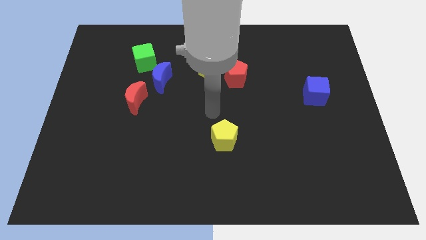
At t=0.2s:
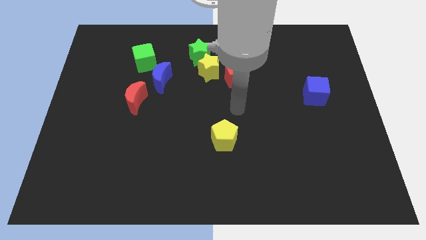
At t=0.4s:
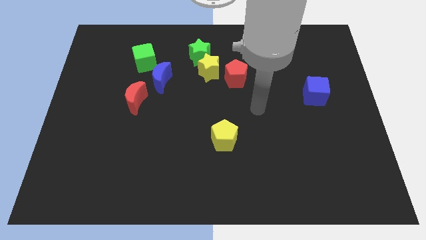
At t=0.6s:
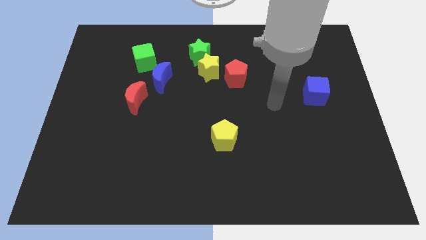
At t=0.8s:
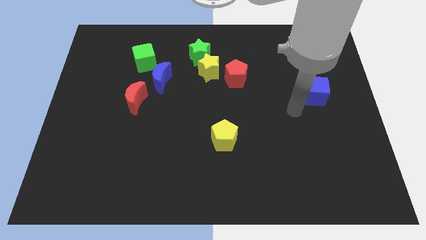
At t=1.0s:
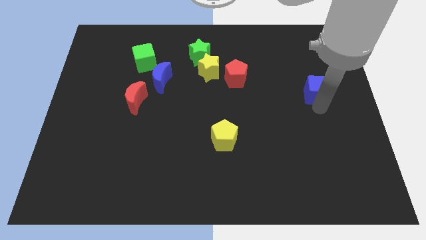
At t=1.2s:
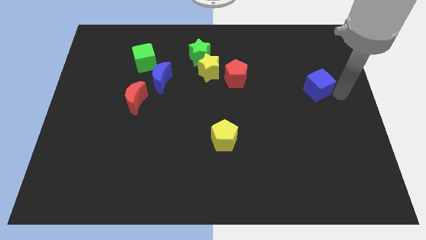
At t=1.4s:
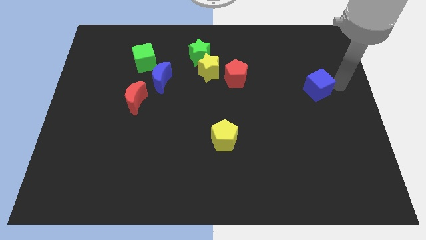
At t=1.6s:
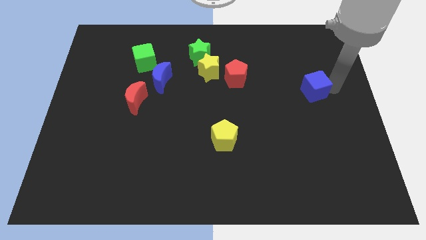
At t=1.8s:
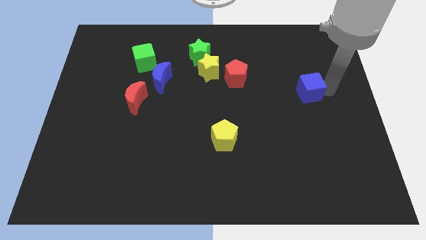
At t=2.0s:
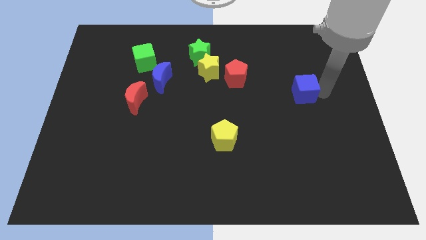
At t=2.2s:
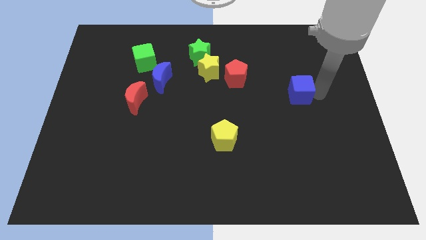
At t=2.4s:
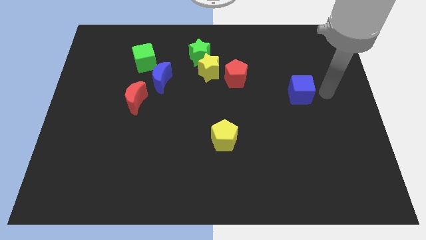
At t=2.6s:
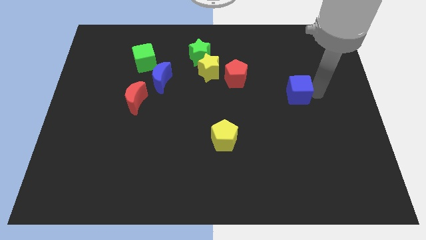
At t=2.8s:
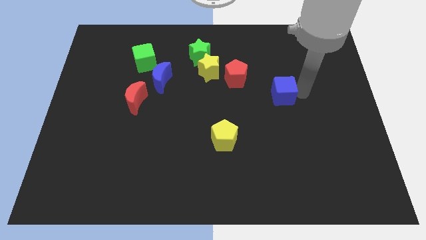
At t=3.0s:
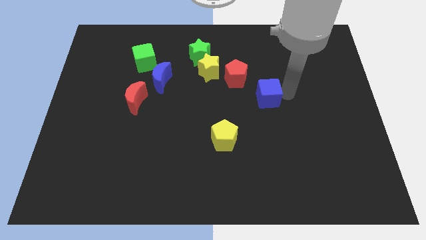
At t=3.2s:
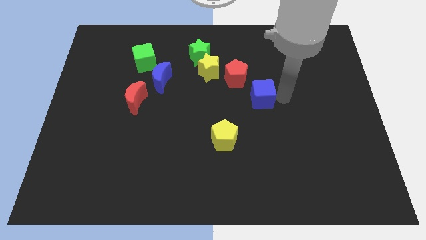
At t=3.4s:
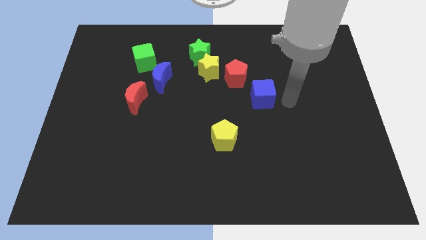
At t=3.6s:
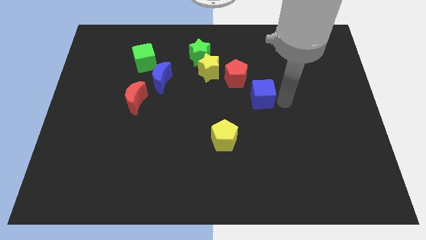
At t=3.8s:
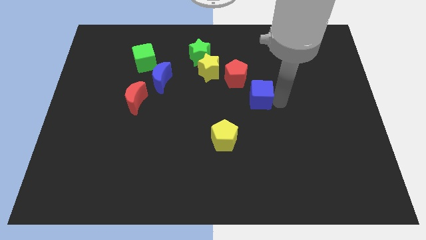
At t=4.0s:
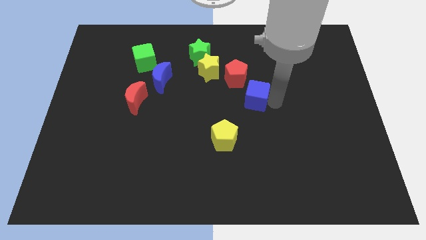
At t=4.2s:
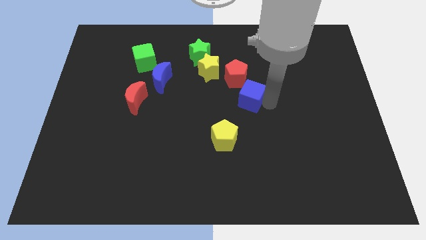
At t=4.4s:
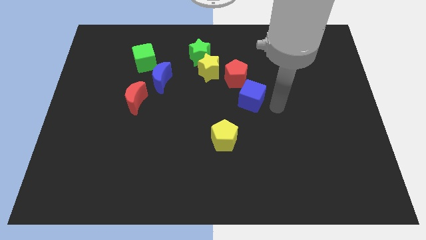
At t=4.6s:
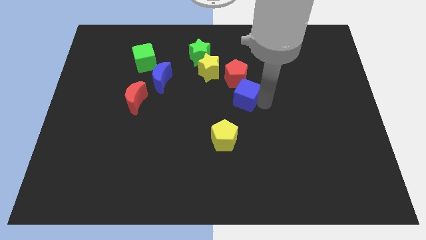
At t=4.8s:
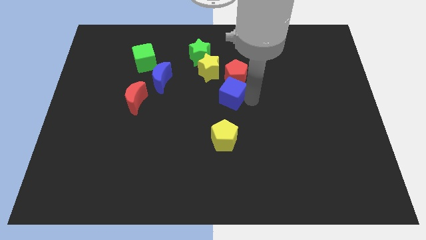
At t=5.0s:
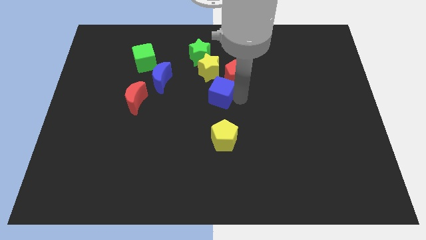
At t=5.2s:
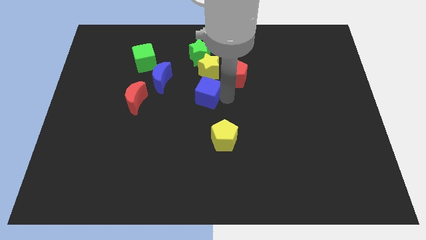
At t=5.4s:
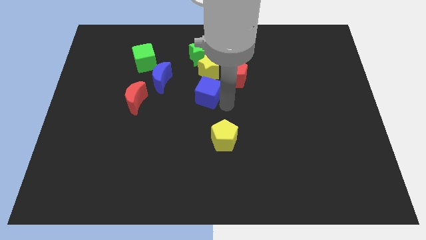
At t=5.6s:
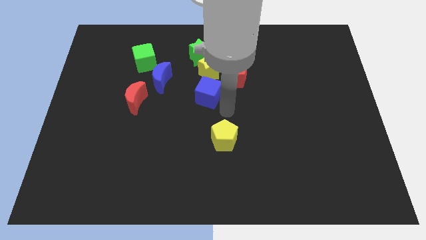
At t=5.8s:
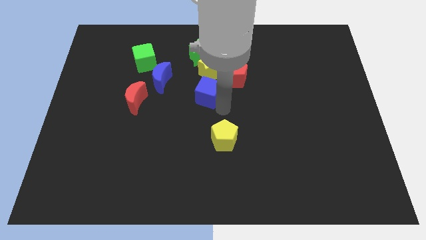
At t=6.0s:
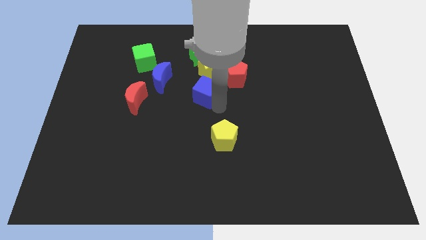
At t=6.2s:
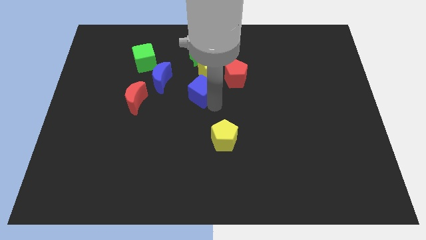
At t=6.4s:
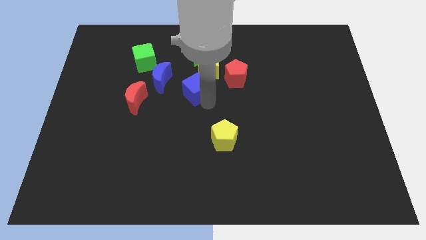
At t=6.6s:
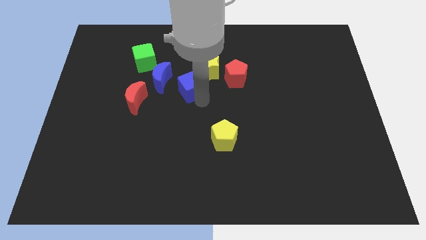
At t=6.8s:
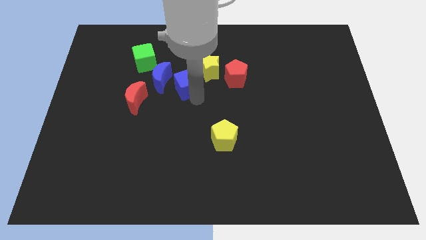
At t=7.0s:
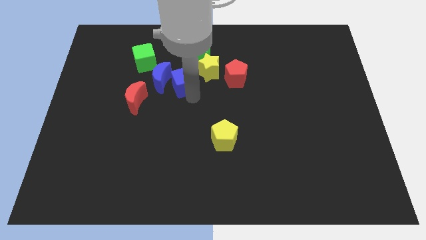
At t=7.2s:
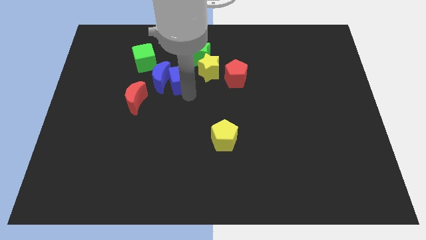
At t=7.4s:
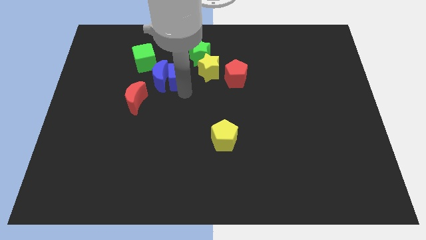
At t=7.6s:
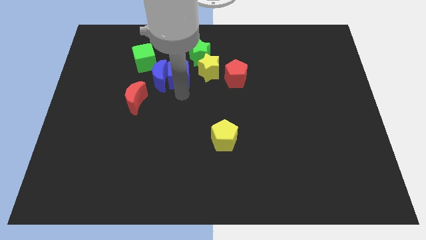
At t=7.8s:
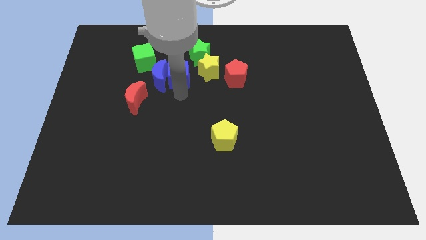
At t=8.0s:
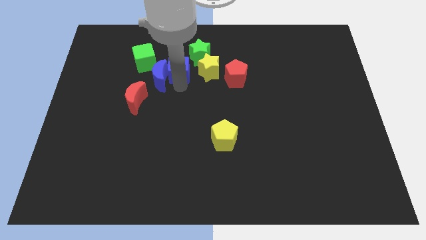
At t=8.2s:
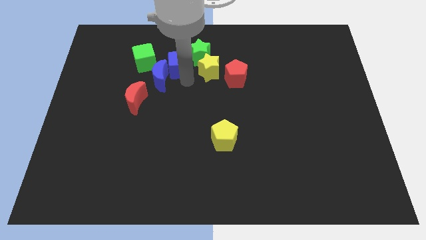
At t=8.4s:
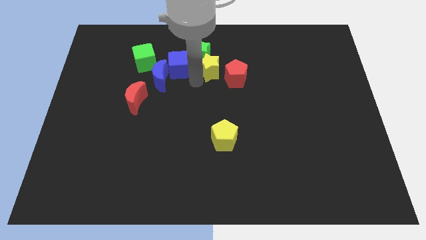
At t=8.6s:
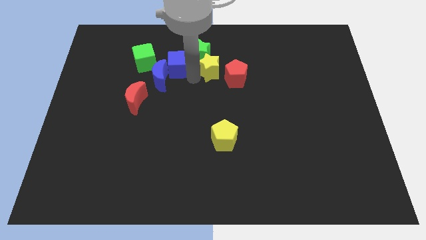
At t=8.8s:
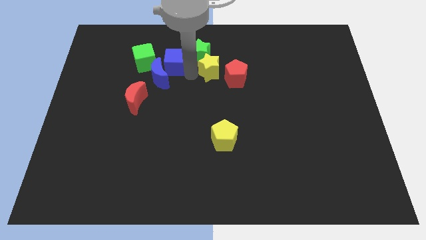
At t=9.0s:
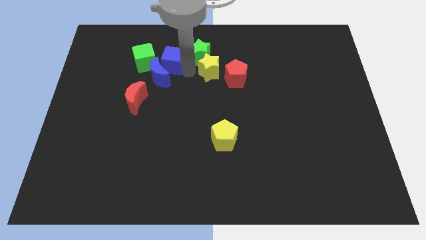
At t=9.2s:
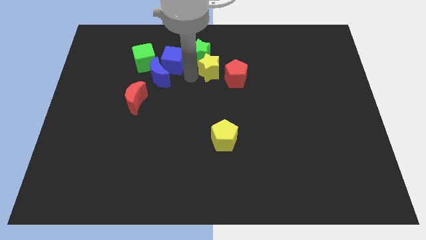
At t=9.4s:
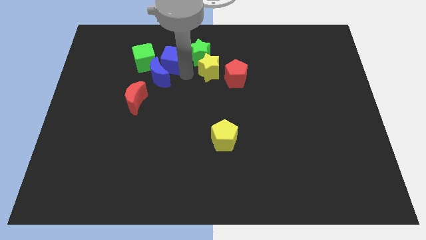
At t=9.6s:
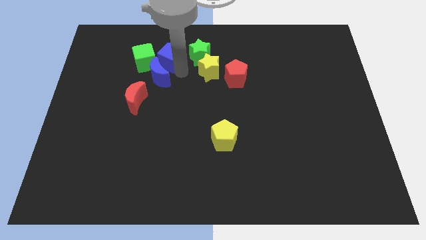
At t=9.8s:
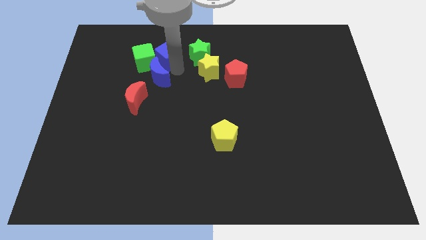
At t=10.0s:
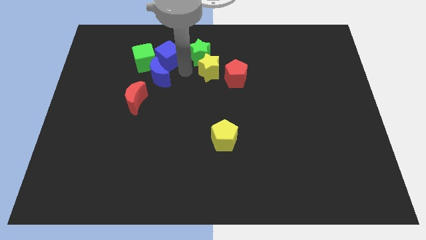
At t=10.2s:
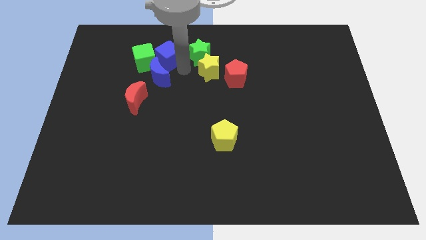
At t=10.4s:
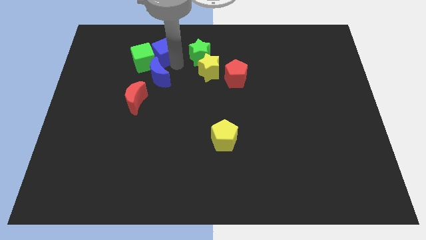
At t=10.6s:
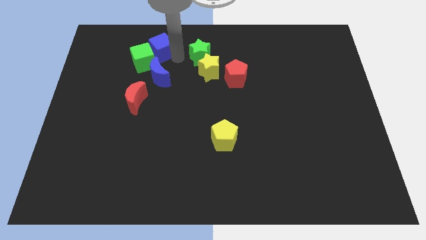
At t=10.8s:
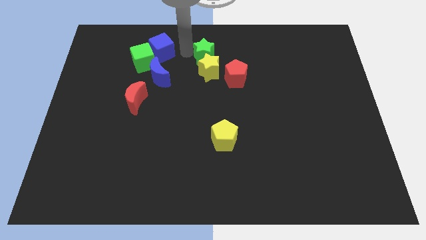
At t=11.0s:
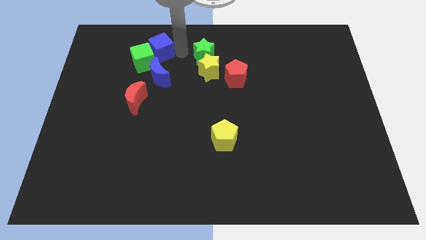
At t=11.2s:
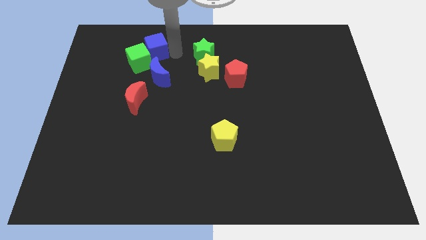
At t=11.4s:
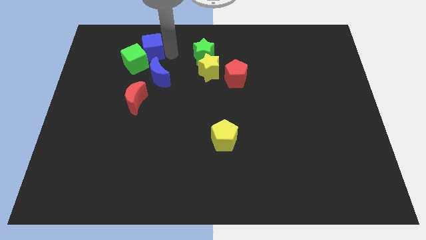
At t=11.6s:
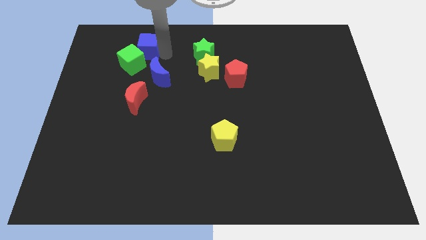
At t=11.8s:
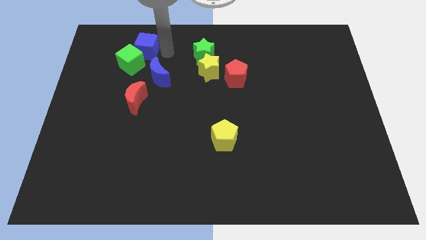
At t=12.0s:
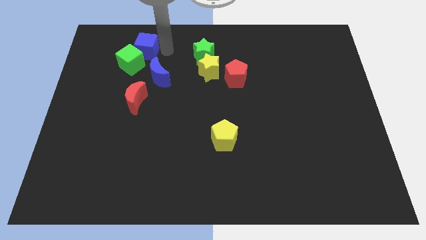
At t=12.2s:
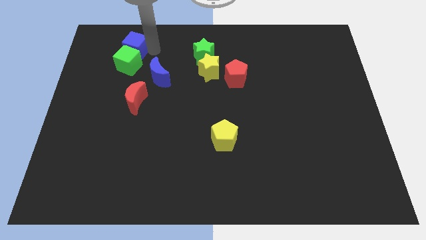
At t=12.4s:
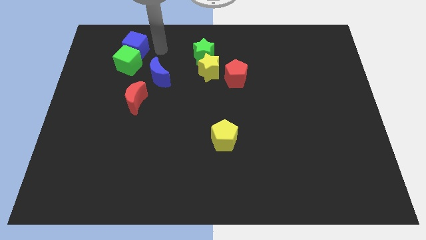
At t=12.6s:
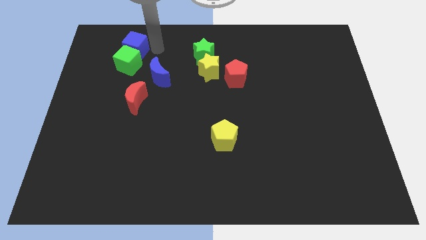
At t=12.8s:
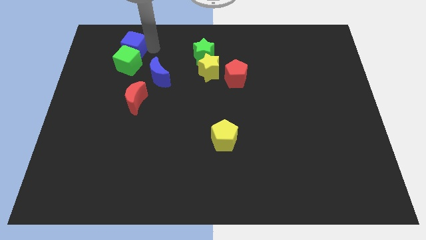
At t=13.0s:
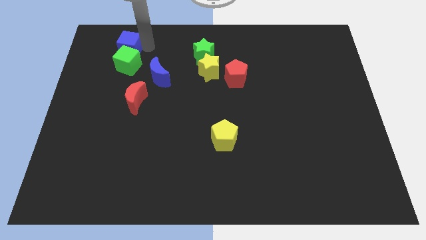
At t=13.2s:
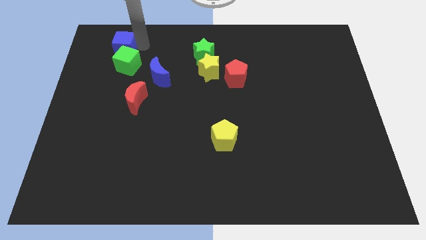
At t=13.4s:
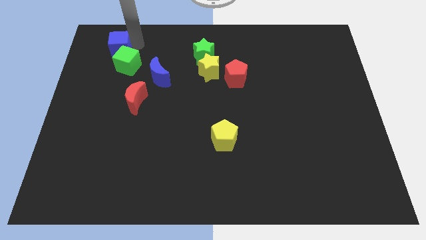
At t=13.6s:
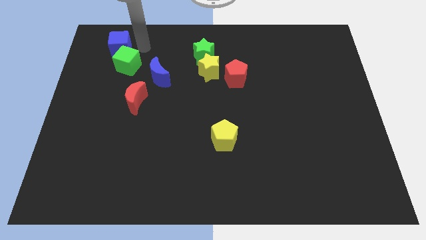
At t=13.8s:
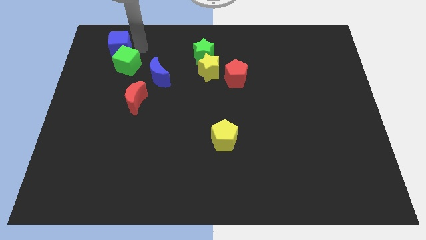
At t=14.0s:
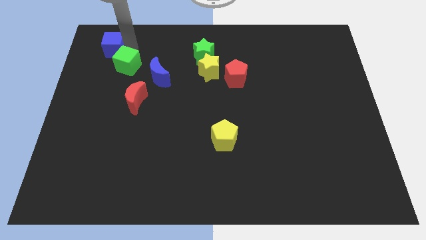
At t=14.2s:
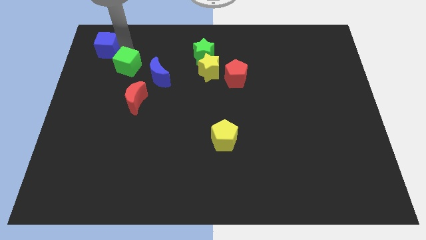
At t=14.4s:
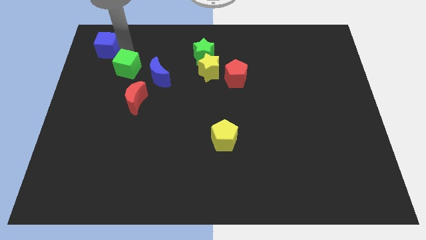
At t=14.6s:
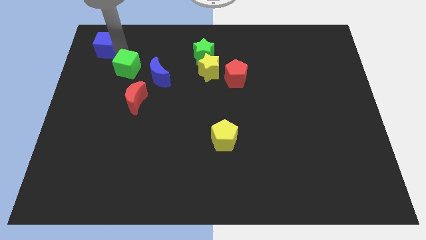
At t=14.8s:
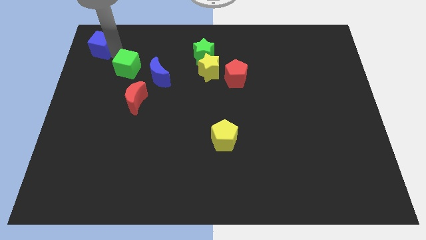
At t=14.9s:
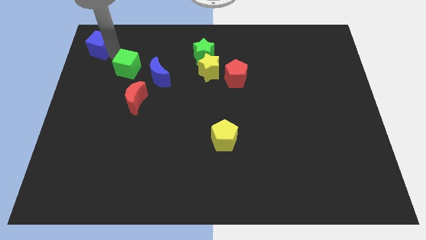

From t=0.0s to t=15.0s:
slide the blue cube to the top left

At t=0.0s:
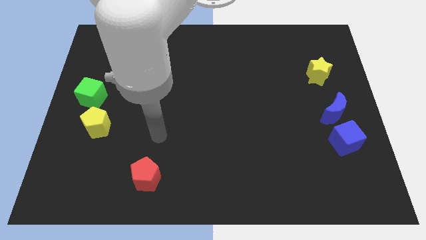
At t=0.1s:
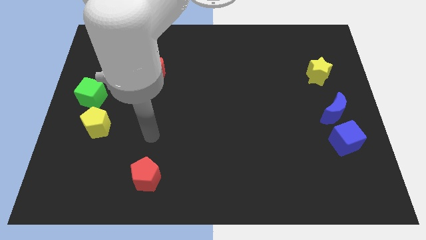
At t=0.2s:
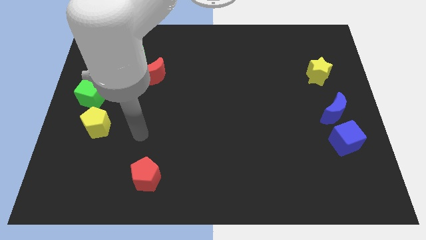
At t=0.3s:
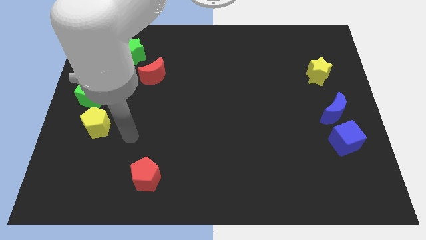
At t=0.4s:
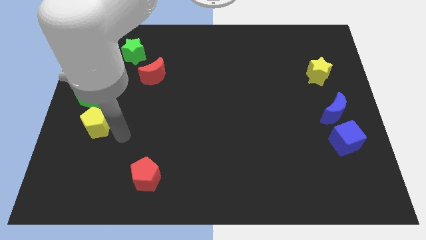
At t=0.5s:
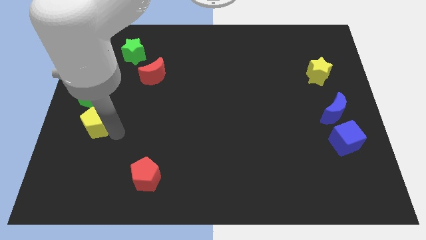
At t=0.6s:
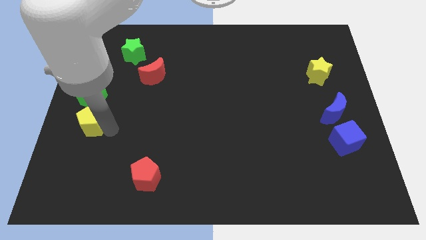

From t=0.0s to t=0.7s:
put the yellow pentagon to the center left
